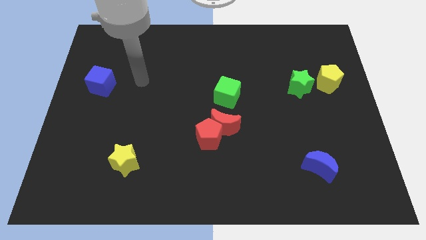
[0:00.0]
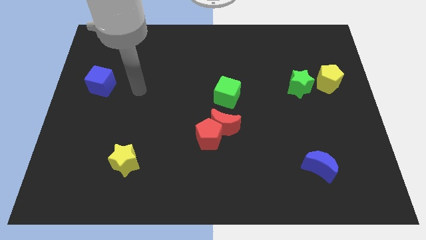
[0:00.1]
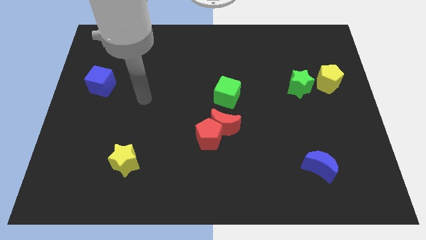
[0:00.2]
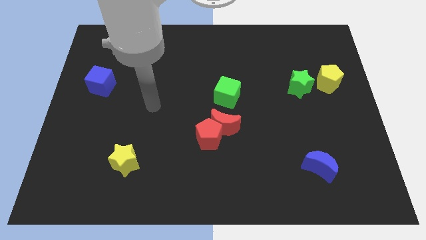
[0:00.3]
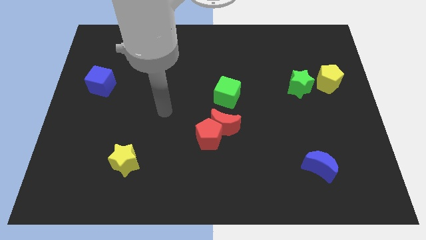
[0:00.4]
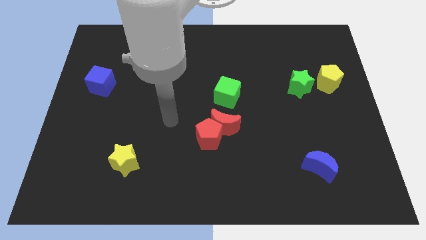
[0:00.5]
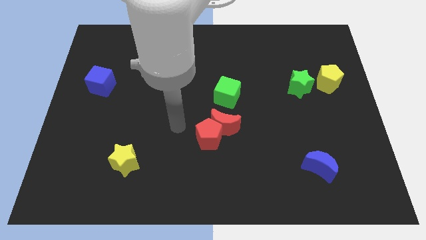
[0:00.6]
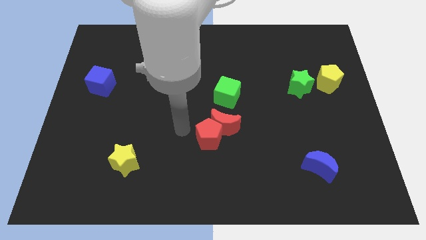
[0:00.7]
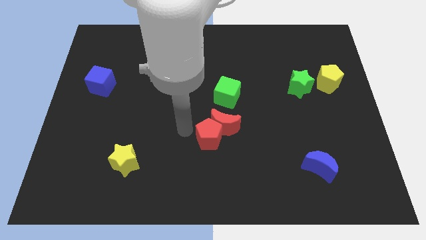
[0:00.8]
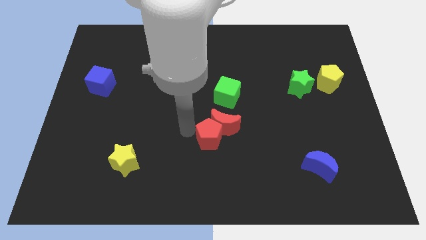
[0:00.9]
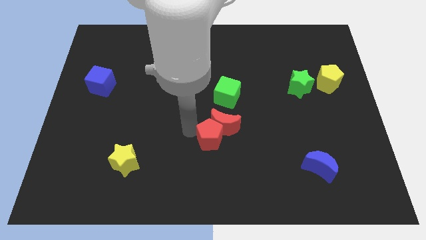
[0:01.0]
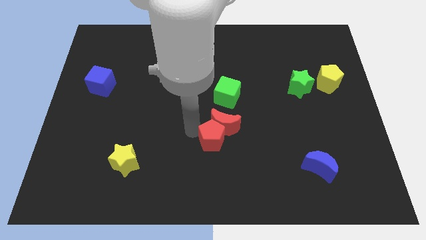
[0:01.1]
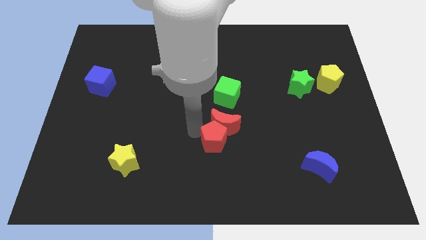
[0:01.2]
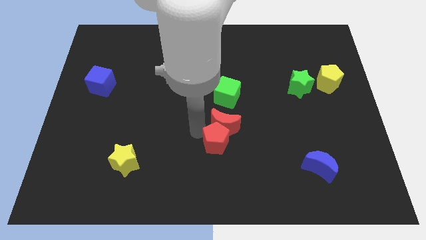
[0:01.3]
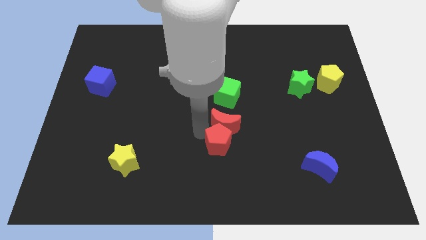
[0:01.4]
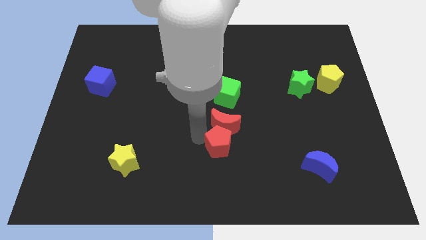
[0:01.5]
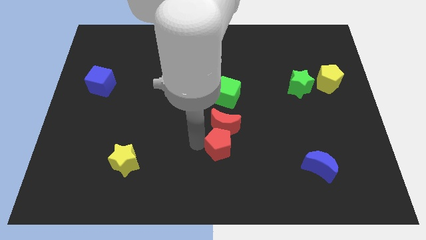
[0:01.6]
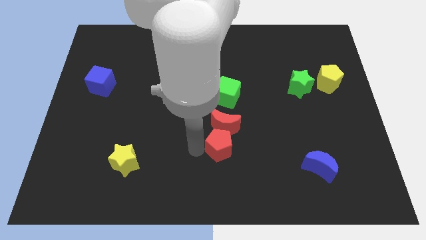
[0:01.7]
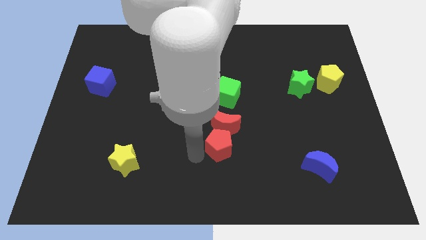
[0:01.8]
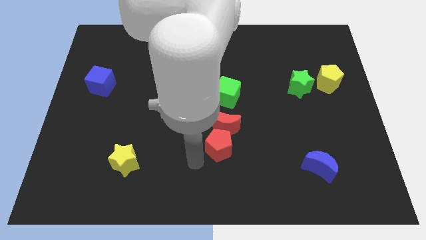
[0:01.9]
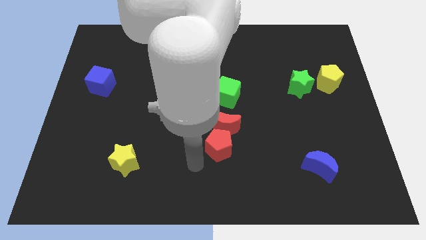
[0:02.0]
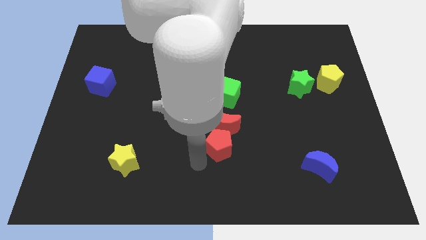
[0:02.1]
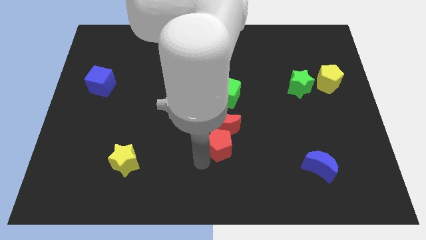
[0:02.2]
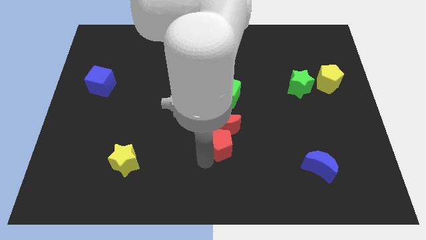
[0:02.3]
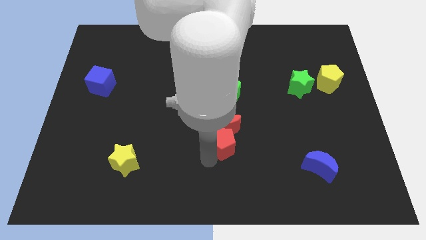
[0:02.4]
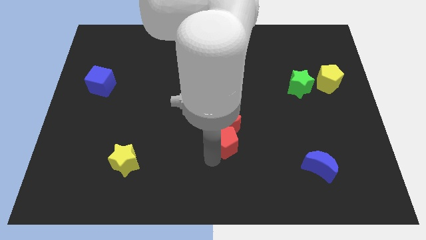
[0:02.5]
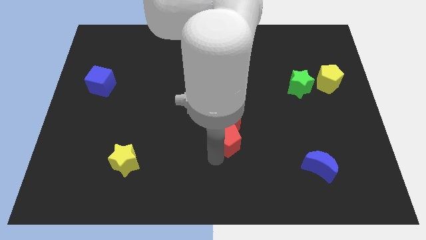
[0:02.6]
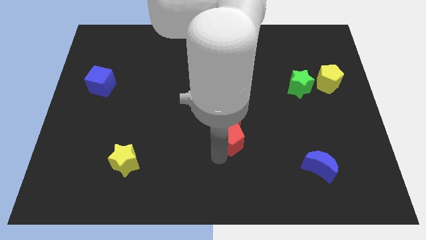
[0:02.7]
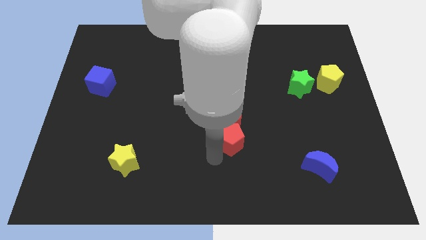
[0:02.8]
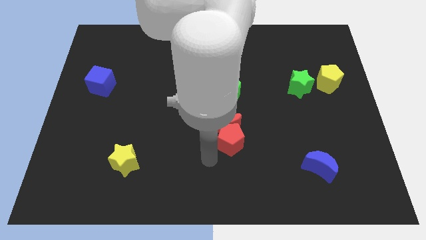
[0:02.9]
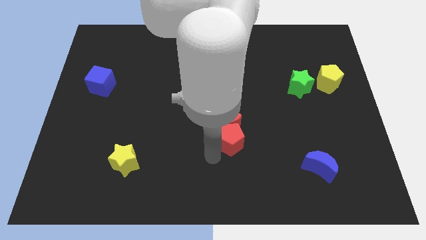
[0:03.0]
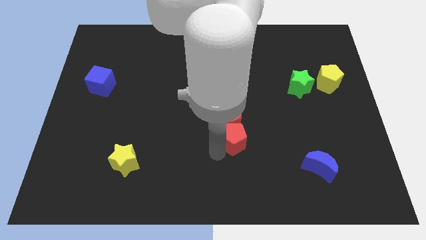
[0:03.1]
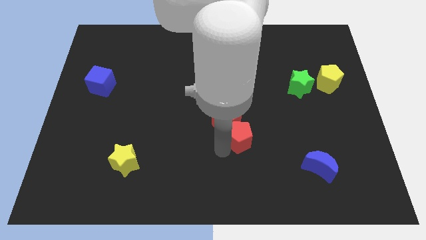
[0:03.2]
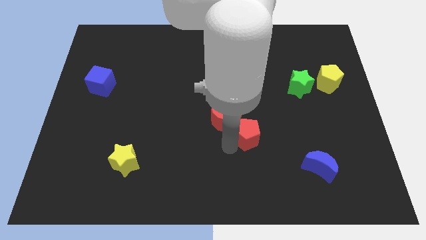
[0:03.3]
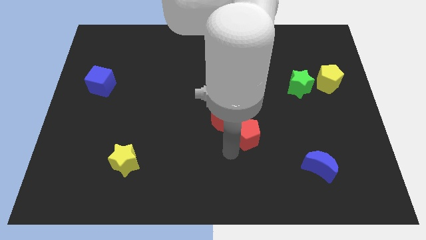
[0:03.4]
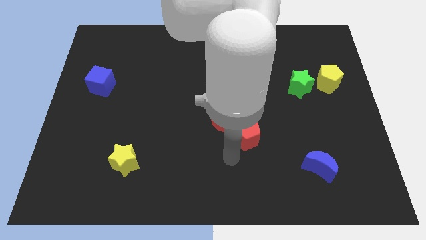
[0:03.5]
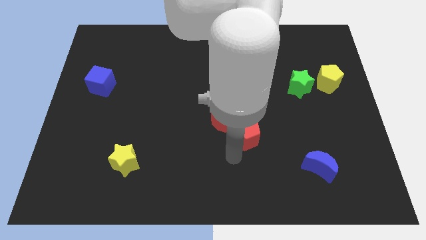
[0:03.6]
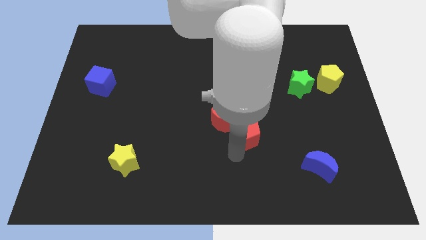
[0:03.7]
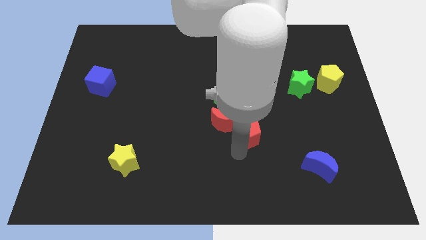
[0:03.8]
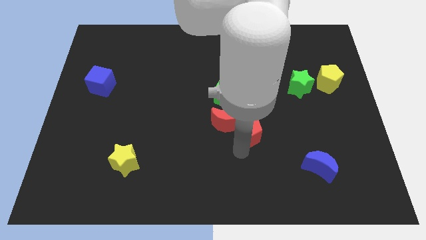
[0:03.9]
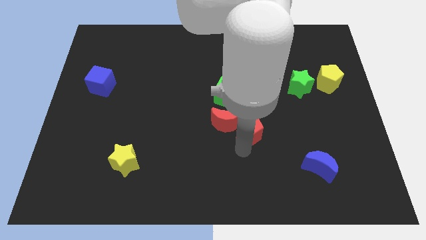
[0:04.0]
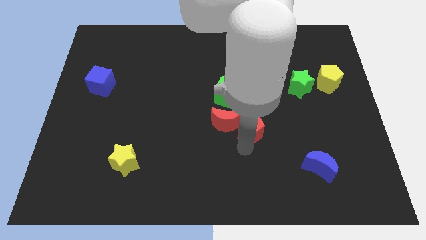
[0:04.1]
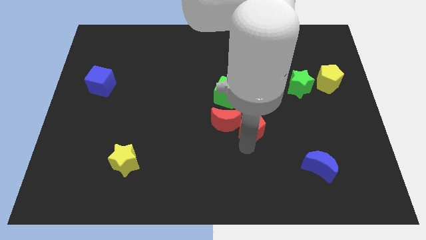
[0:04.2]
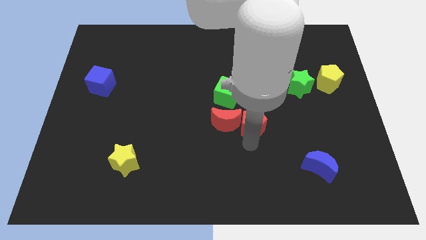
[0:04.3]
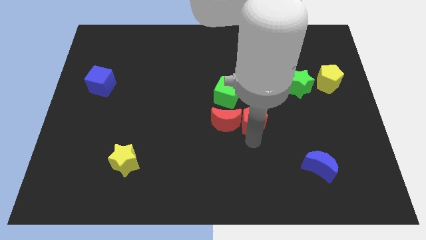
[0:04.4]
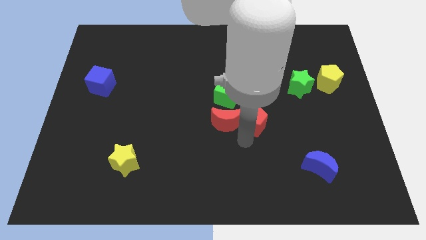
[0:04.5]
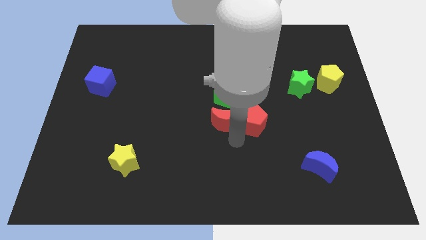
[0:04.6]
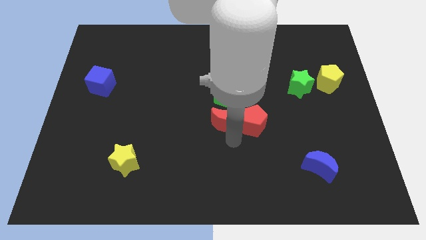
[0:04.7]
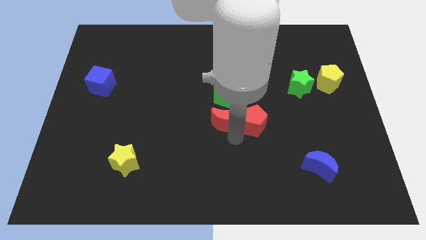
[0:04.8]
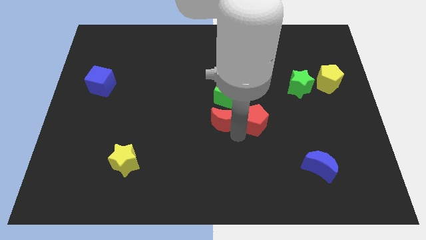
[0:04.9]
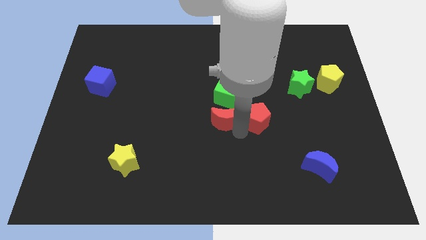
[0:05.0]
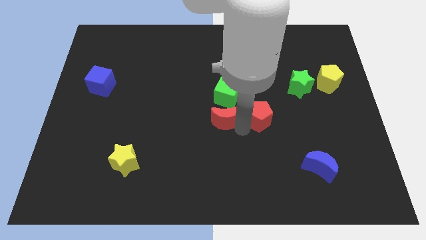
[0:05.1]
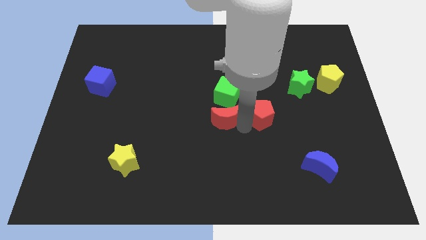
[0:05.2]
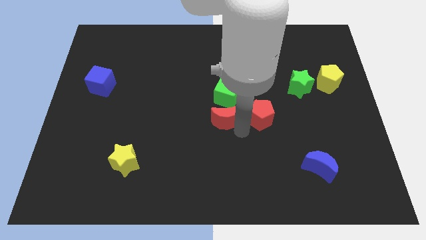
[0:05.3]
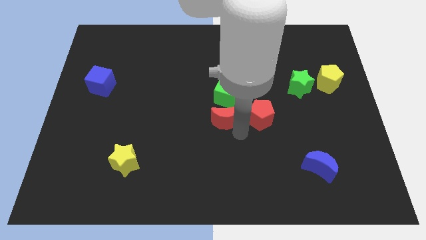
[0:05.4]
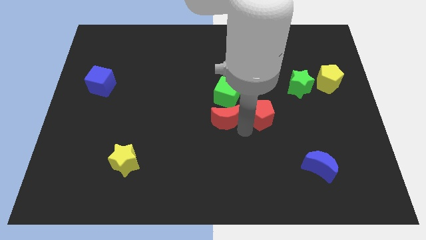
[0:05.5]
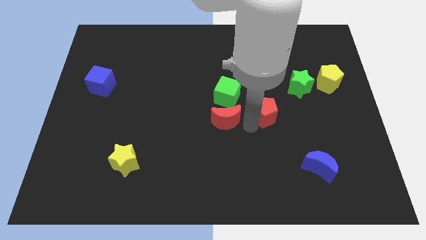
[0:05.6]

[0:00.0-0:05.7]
slide the red pentagon diagonally down and to the left of the green star

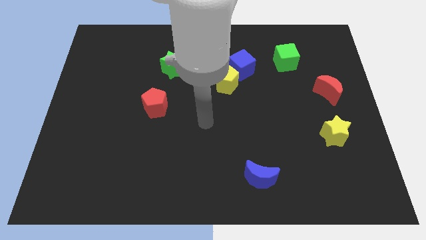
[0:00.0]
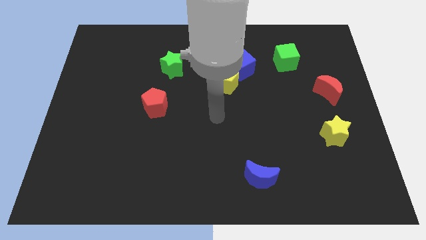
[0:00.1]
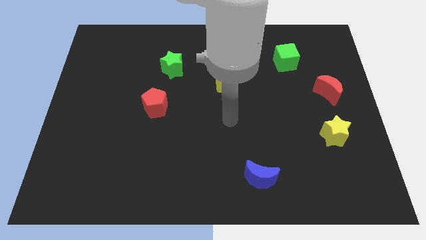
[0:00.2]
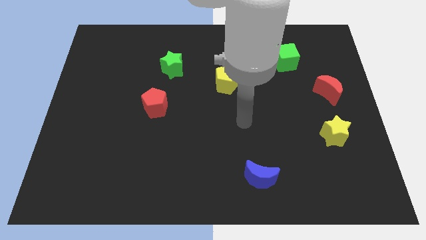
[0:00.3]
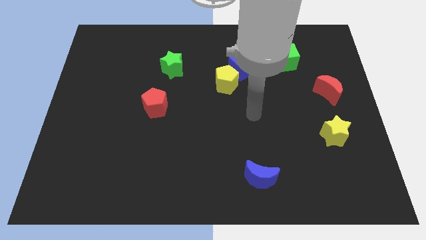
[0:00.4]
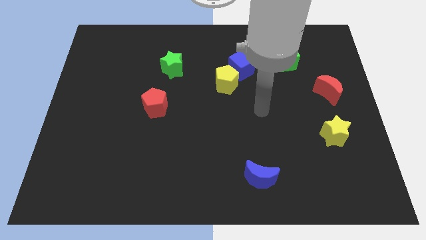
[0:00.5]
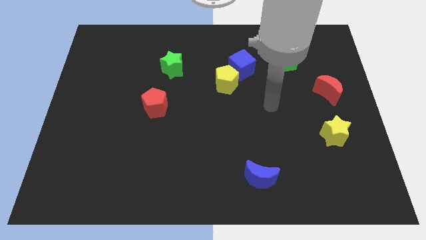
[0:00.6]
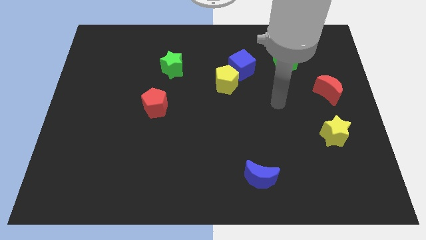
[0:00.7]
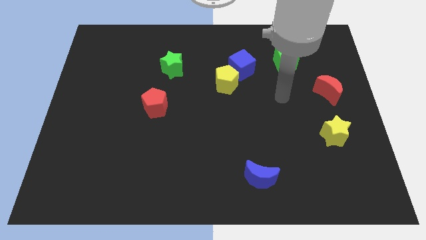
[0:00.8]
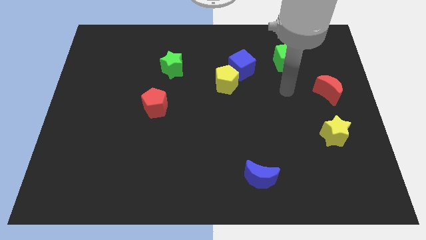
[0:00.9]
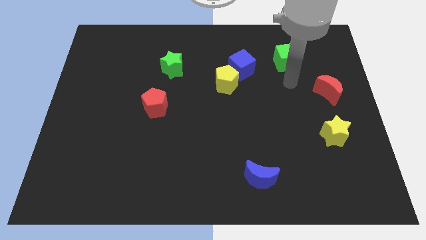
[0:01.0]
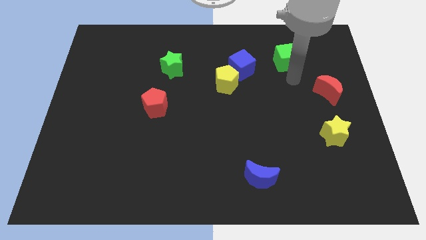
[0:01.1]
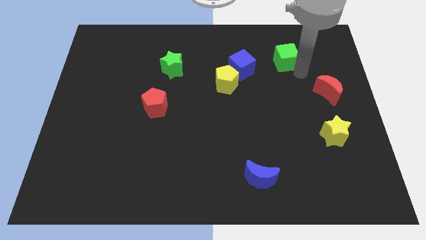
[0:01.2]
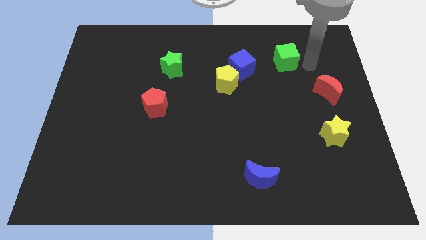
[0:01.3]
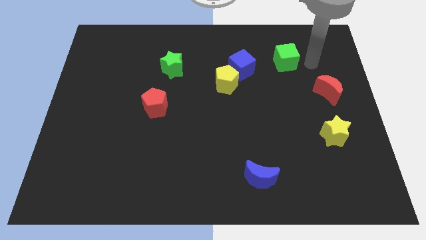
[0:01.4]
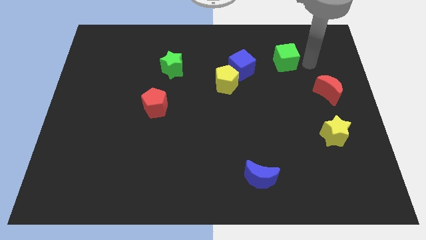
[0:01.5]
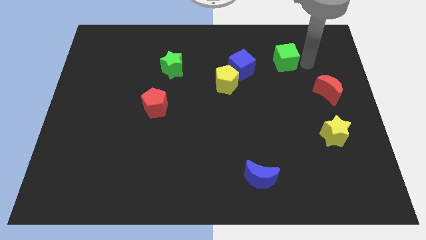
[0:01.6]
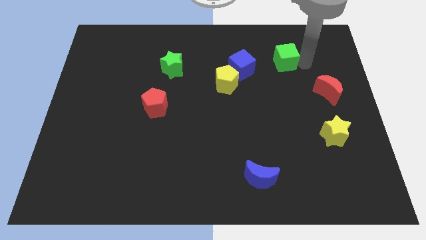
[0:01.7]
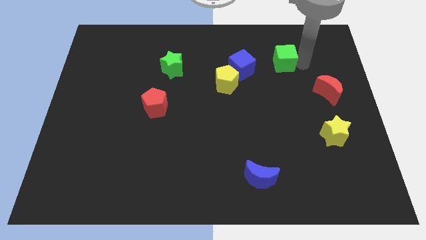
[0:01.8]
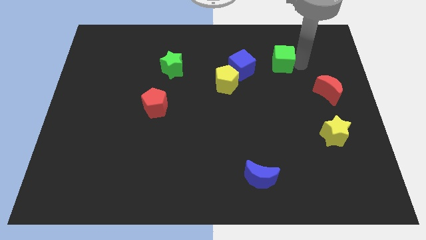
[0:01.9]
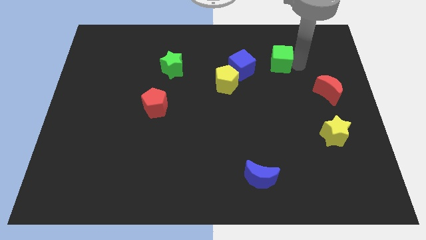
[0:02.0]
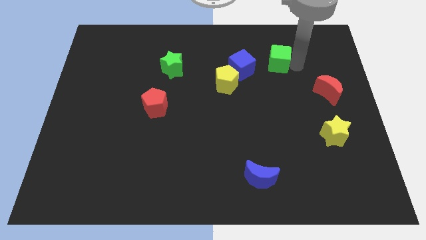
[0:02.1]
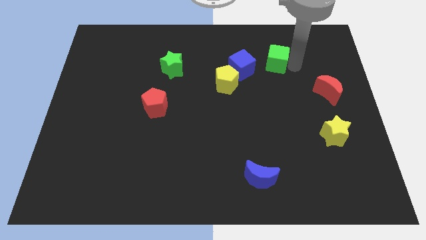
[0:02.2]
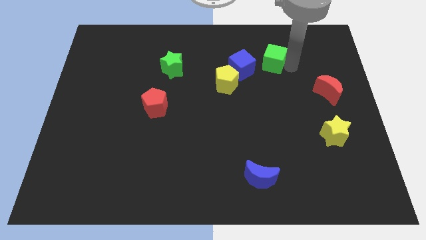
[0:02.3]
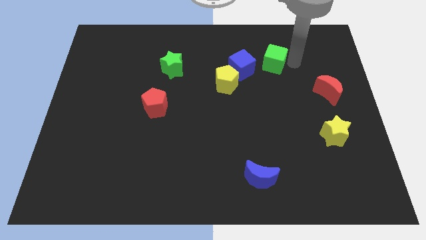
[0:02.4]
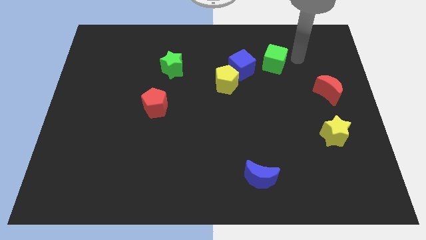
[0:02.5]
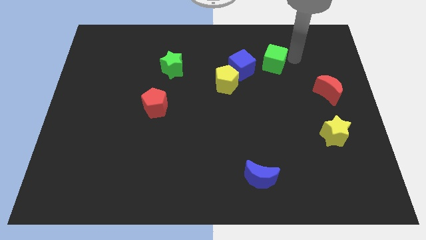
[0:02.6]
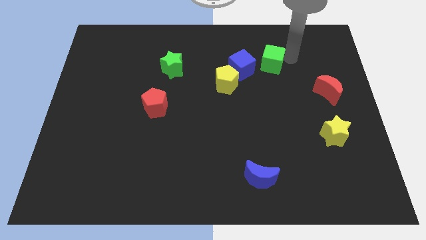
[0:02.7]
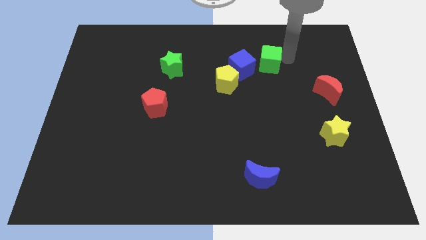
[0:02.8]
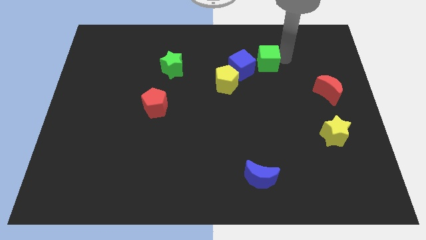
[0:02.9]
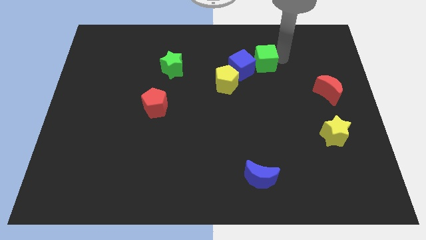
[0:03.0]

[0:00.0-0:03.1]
slide the green cube diagonally up and to the right of the yellow pentagon
